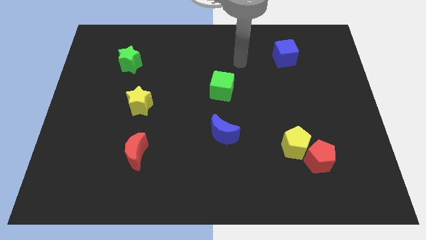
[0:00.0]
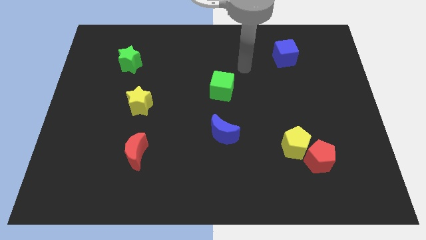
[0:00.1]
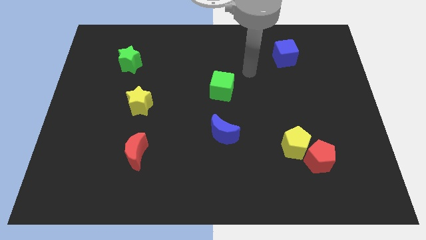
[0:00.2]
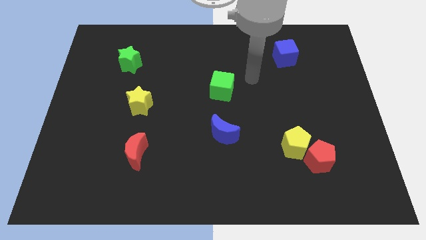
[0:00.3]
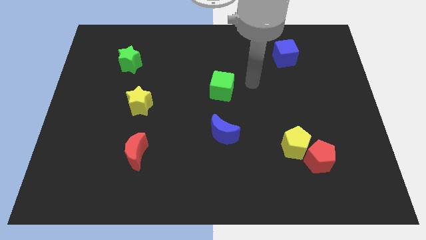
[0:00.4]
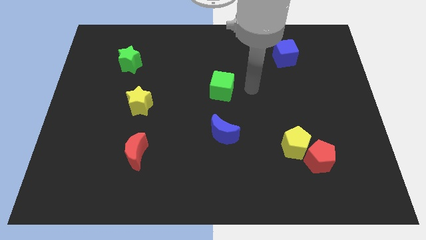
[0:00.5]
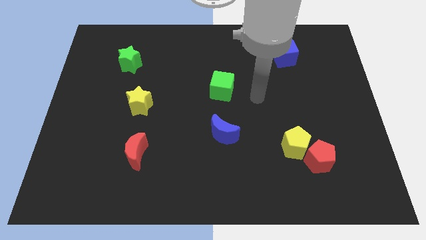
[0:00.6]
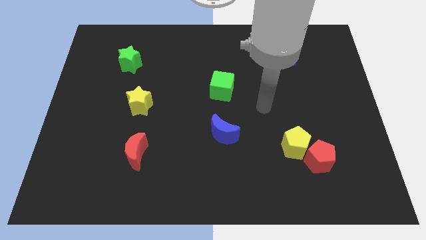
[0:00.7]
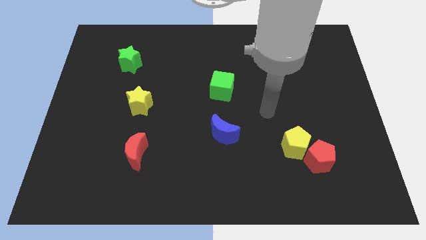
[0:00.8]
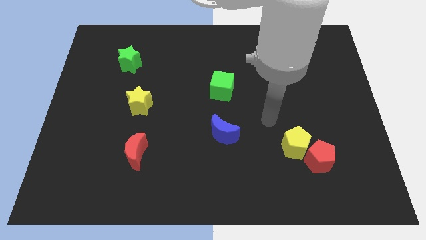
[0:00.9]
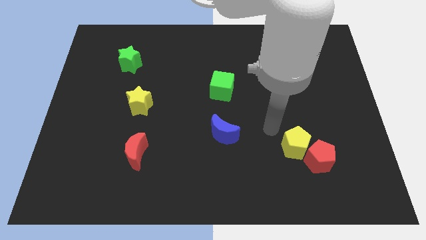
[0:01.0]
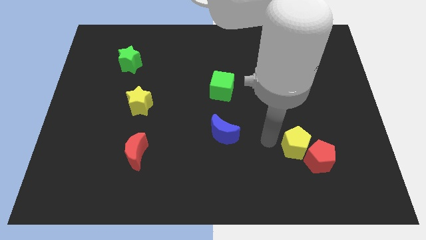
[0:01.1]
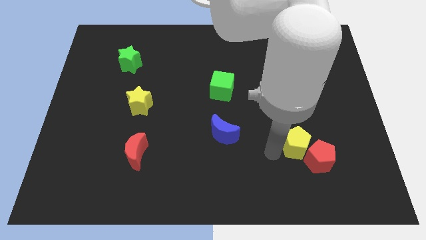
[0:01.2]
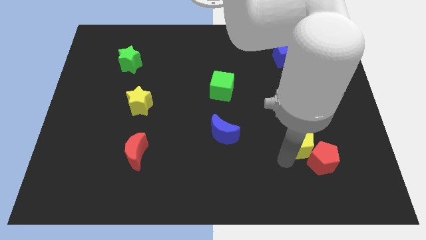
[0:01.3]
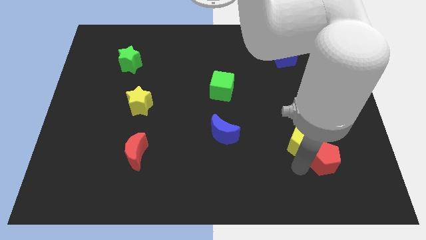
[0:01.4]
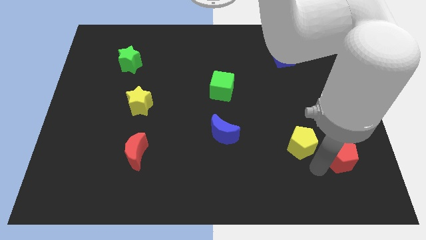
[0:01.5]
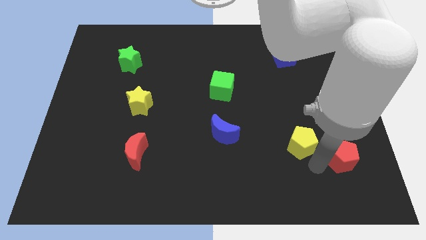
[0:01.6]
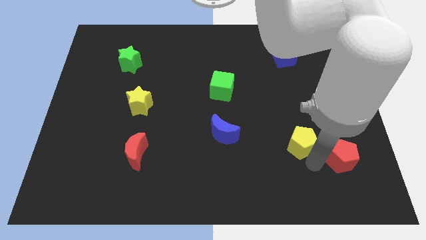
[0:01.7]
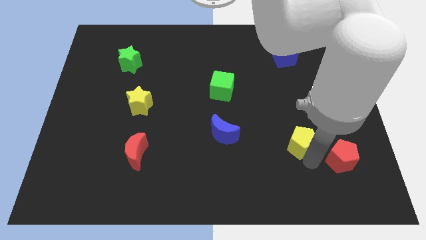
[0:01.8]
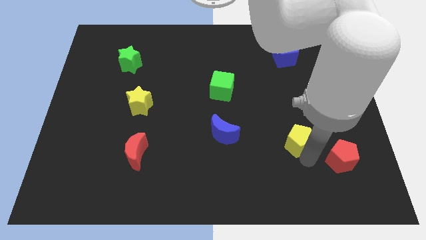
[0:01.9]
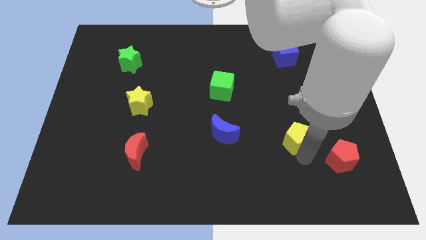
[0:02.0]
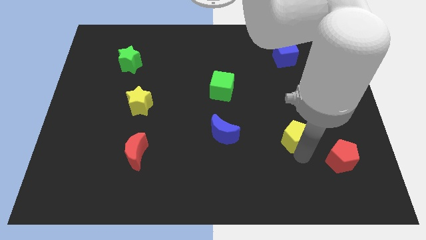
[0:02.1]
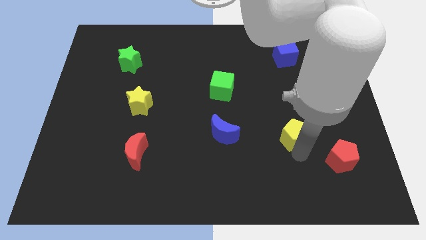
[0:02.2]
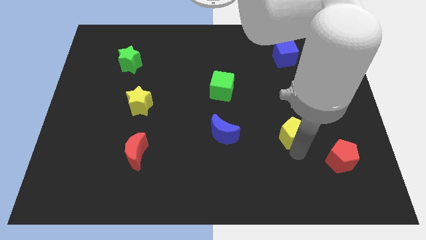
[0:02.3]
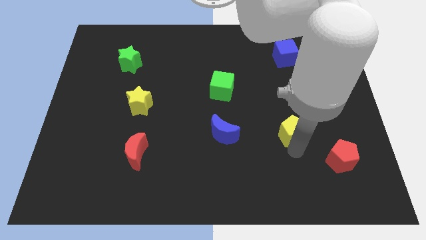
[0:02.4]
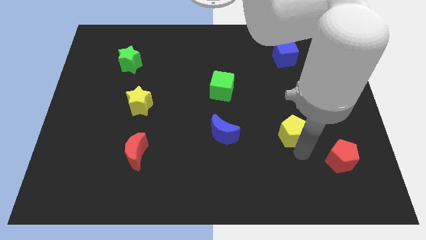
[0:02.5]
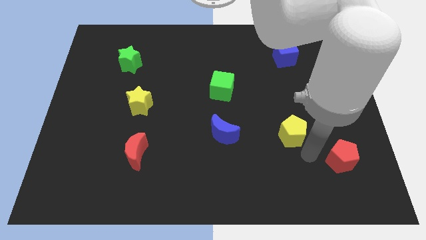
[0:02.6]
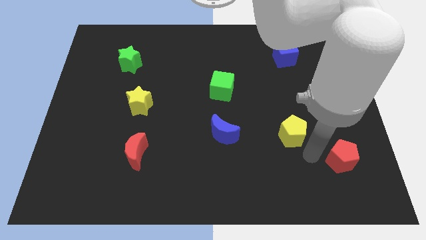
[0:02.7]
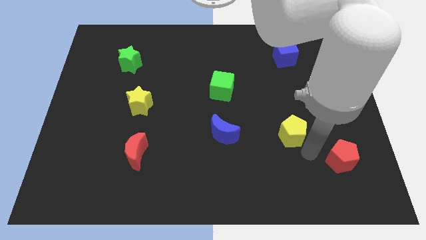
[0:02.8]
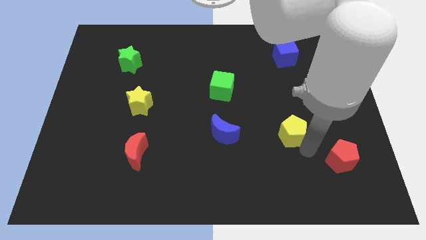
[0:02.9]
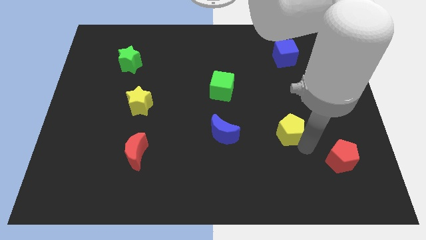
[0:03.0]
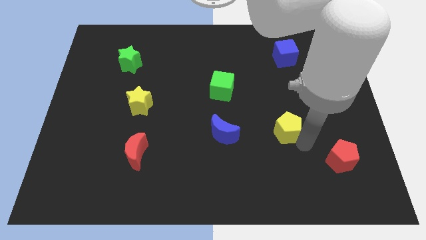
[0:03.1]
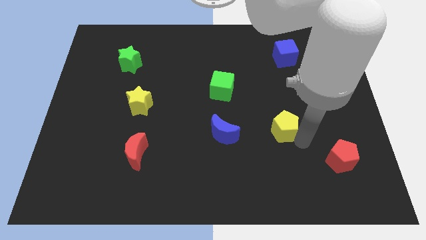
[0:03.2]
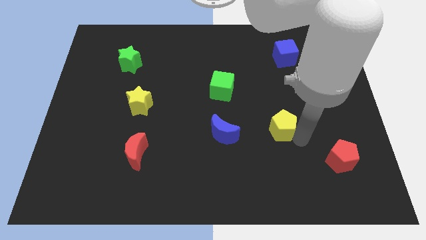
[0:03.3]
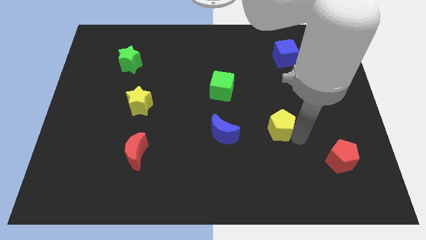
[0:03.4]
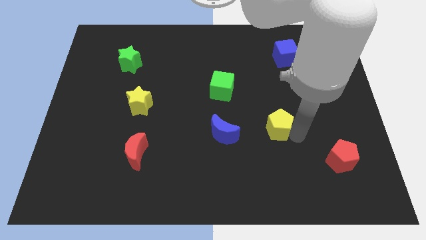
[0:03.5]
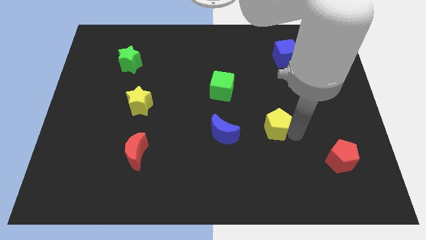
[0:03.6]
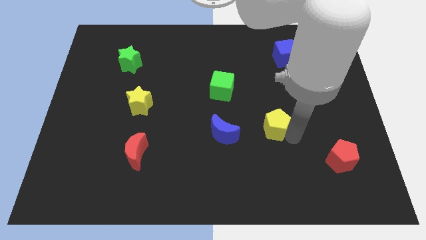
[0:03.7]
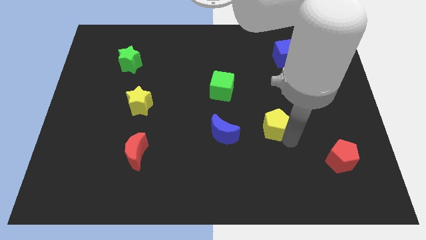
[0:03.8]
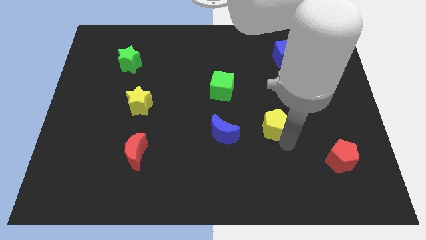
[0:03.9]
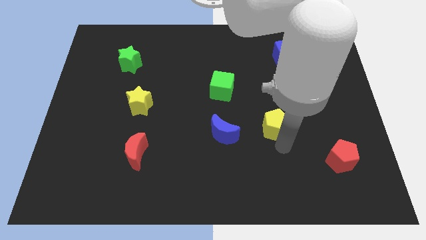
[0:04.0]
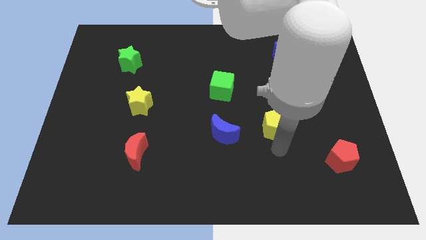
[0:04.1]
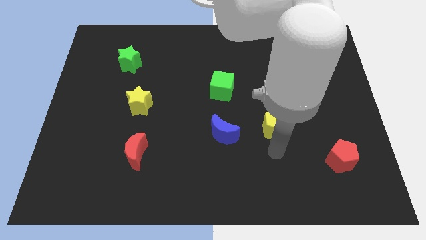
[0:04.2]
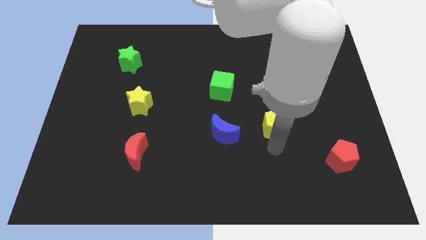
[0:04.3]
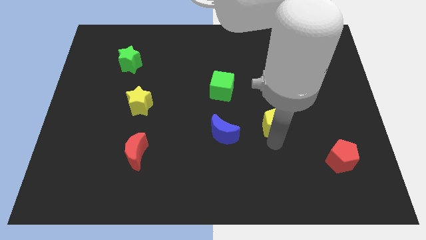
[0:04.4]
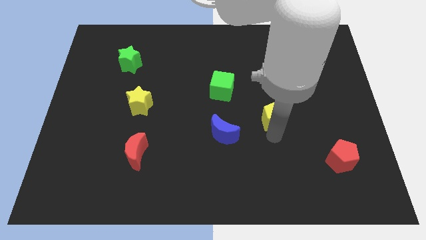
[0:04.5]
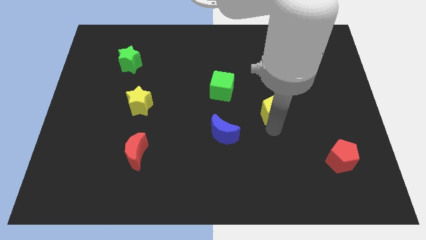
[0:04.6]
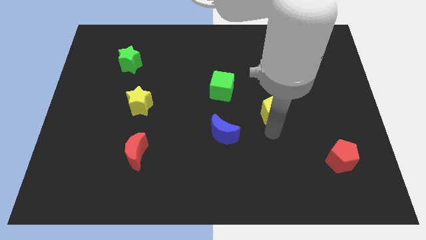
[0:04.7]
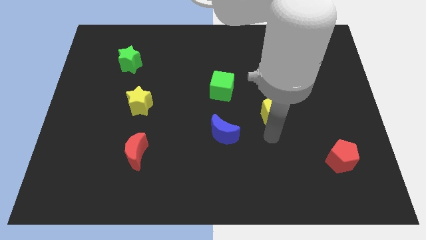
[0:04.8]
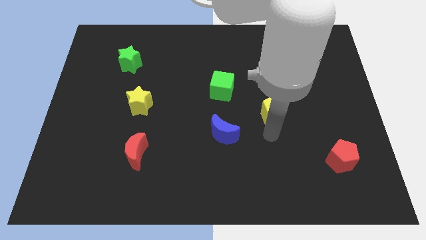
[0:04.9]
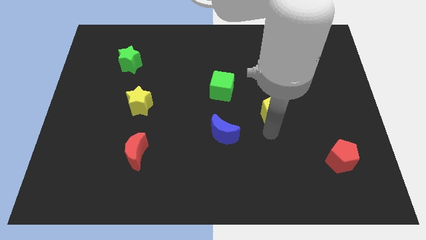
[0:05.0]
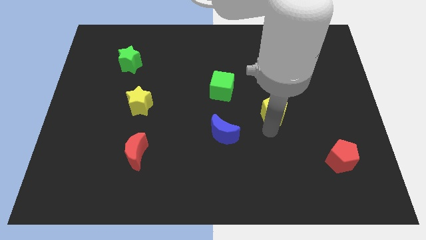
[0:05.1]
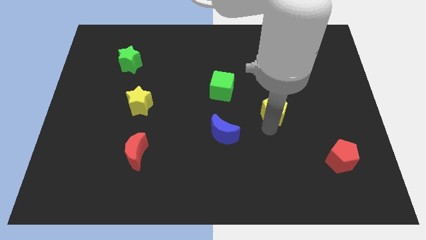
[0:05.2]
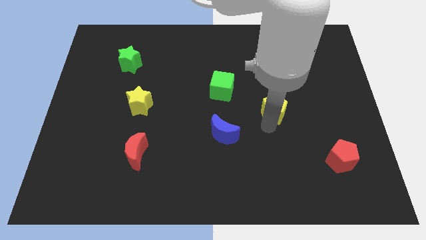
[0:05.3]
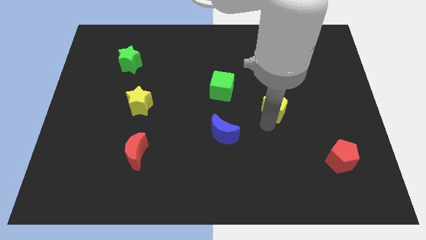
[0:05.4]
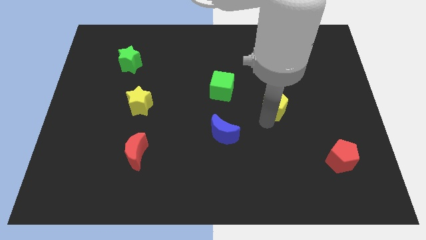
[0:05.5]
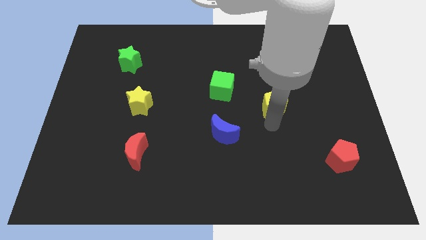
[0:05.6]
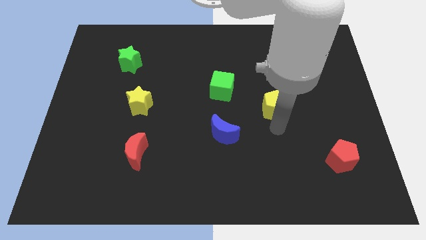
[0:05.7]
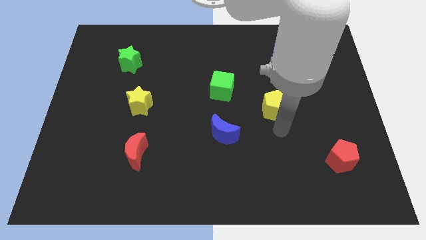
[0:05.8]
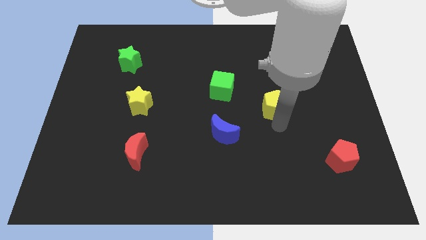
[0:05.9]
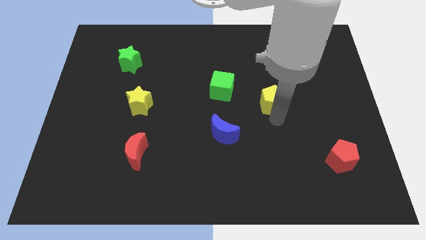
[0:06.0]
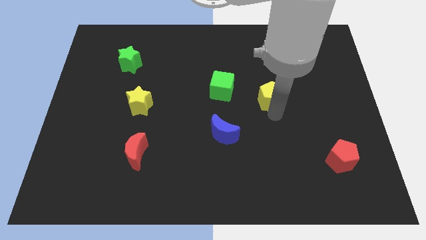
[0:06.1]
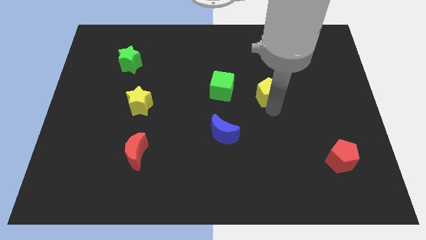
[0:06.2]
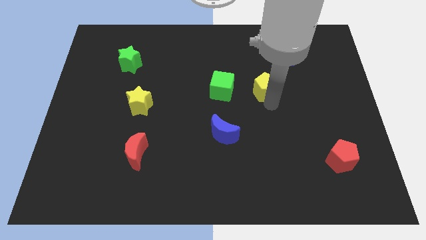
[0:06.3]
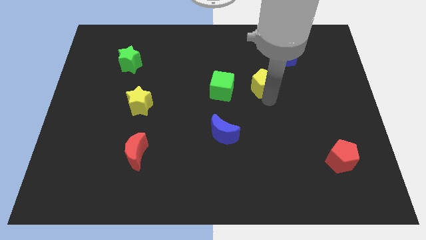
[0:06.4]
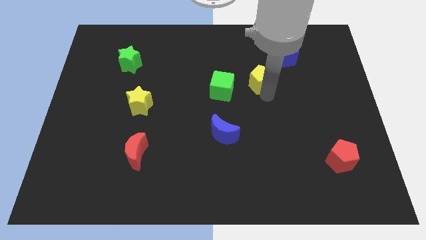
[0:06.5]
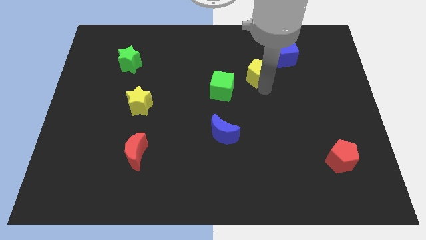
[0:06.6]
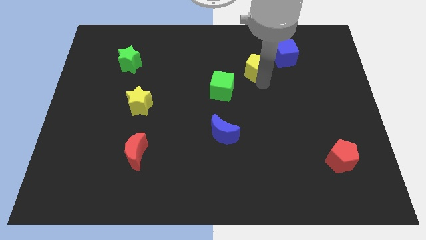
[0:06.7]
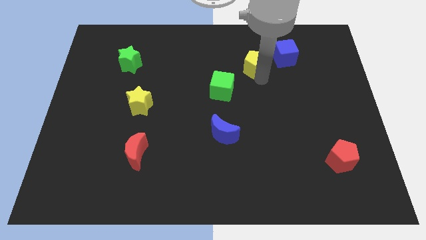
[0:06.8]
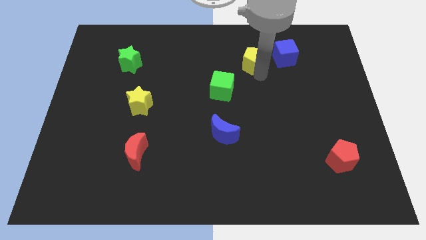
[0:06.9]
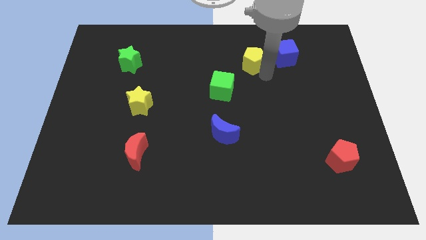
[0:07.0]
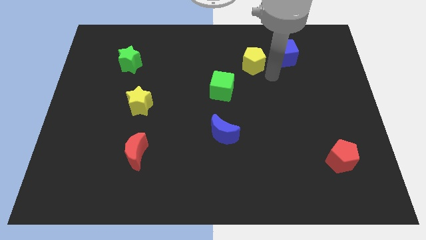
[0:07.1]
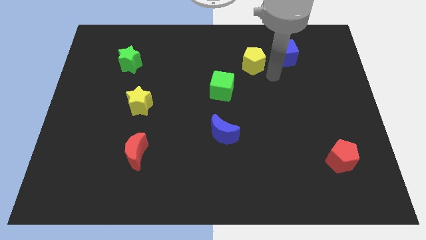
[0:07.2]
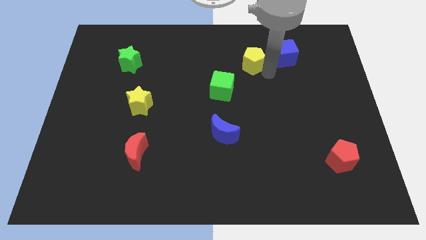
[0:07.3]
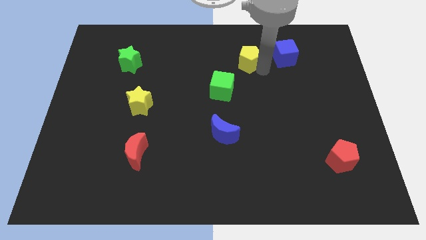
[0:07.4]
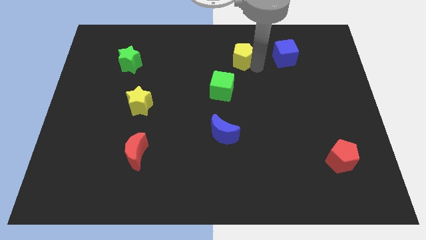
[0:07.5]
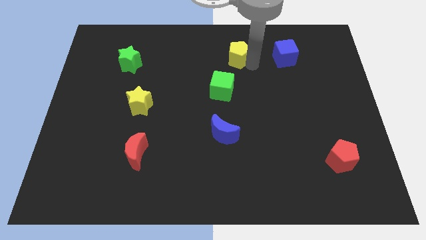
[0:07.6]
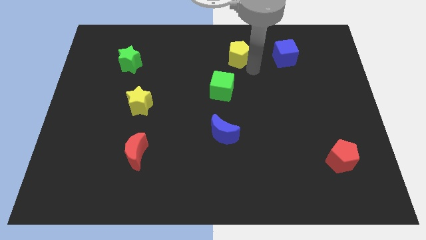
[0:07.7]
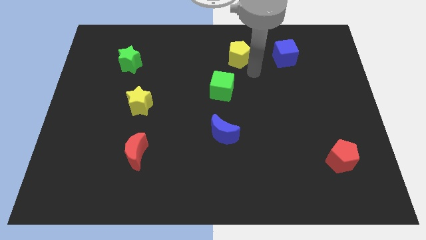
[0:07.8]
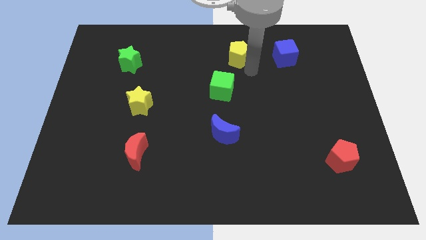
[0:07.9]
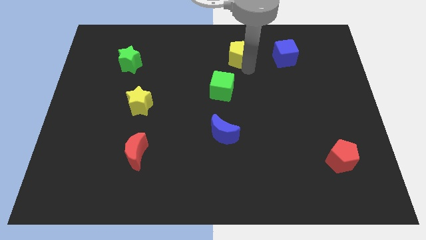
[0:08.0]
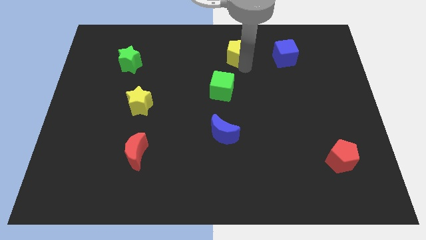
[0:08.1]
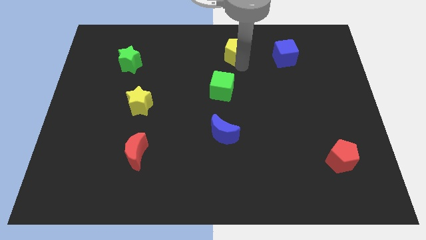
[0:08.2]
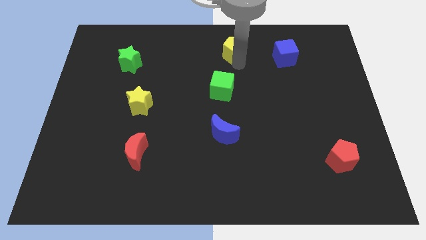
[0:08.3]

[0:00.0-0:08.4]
slide the yellow pentagon to the towards your base
